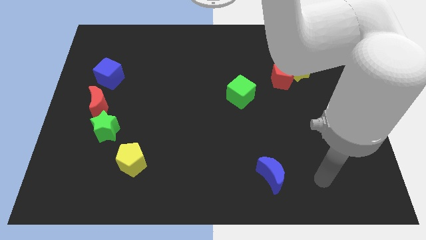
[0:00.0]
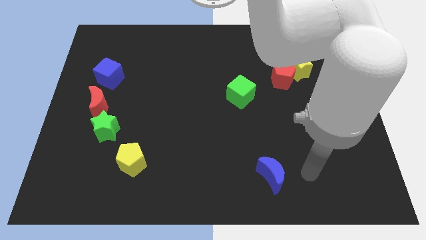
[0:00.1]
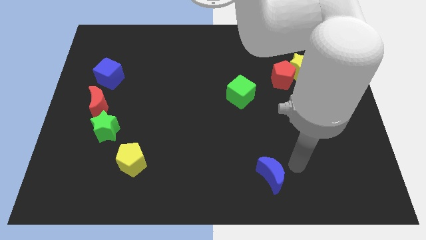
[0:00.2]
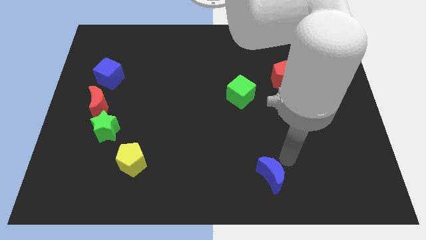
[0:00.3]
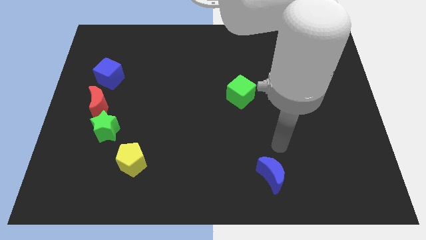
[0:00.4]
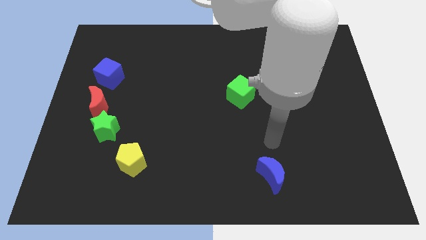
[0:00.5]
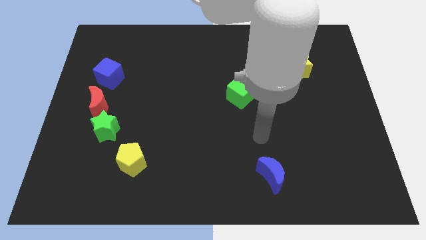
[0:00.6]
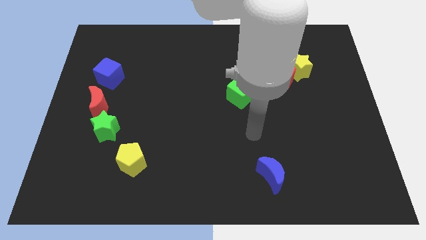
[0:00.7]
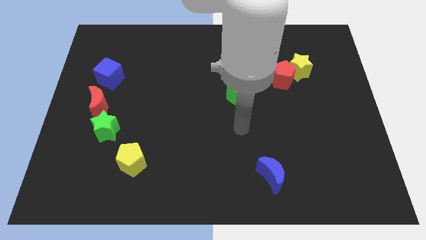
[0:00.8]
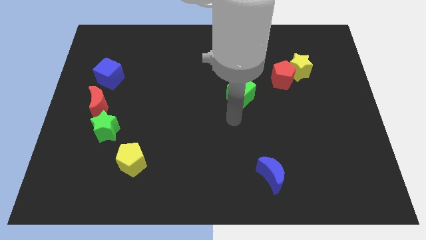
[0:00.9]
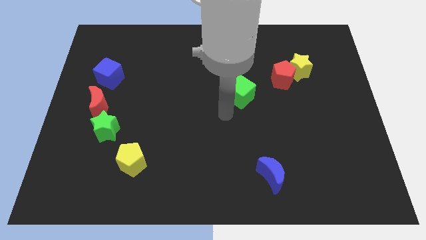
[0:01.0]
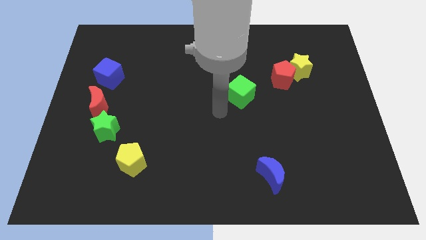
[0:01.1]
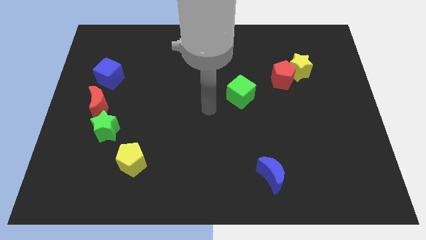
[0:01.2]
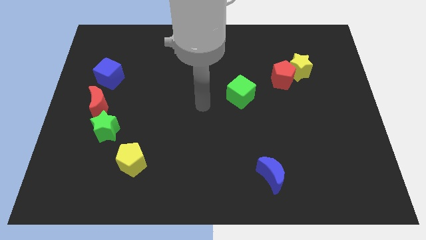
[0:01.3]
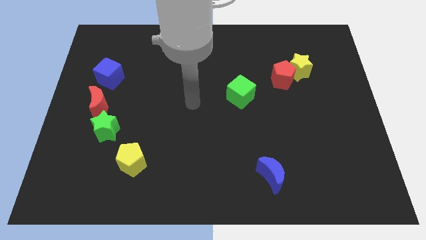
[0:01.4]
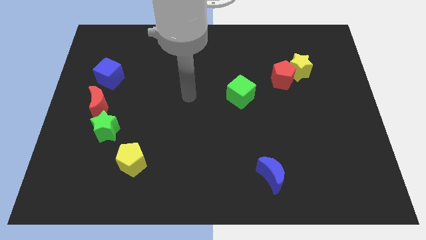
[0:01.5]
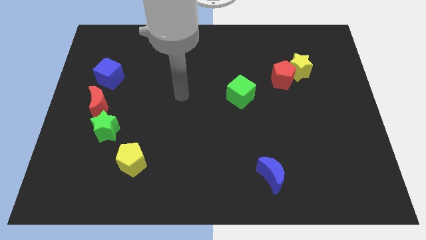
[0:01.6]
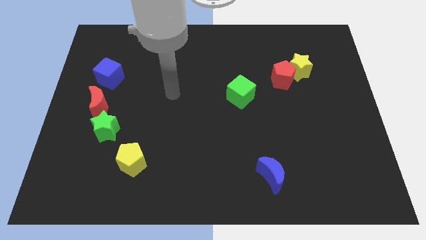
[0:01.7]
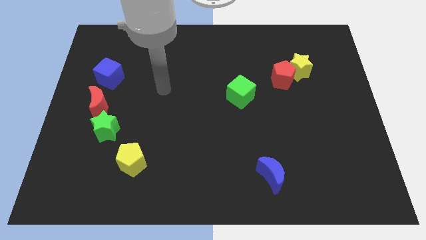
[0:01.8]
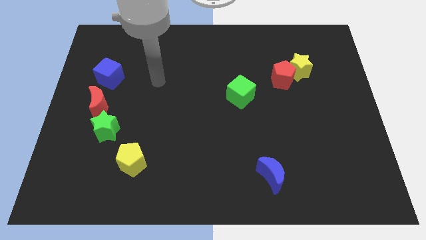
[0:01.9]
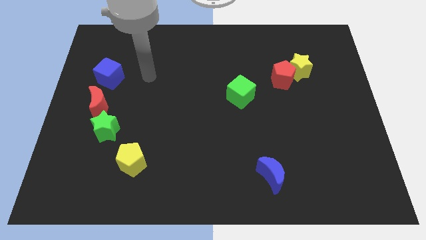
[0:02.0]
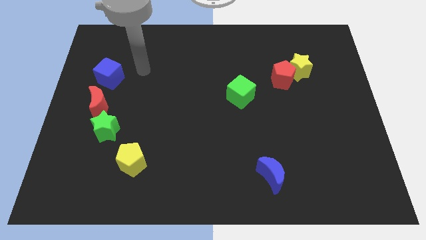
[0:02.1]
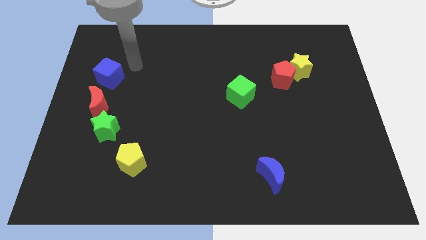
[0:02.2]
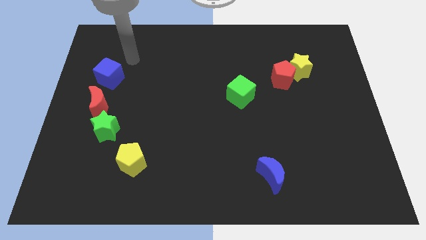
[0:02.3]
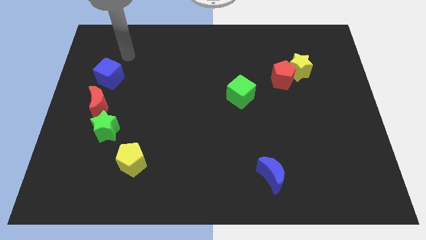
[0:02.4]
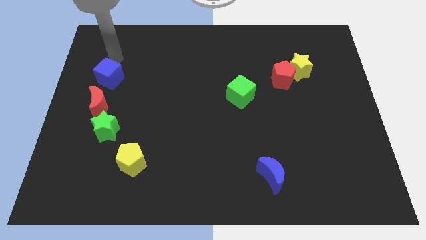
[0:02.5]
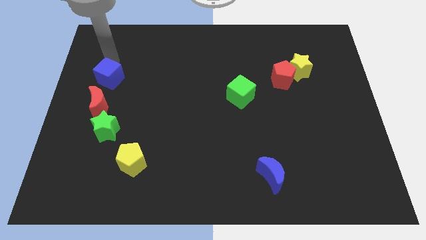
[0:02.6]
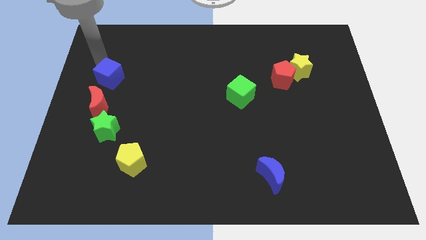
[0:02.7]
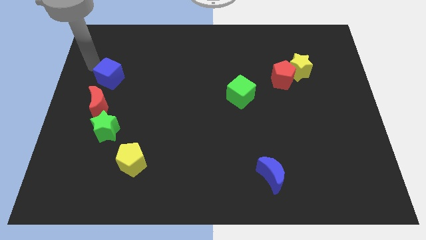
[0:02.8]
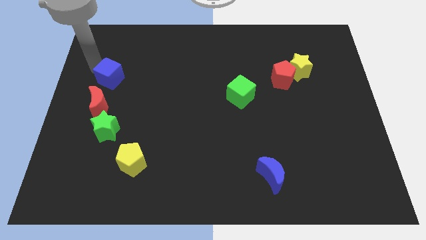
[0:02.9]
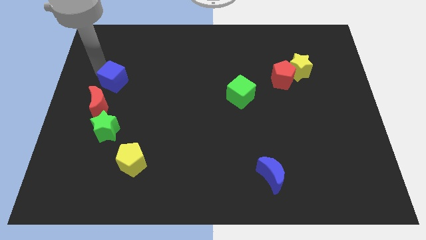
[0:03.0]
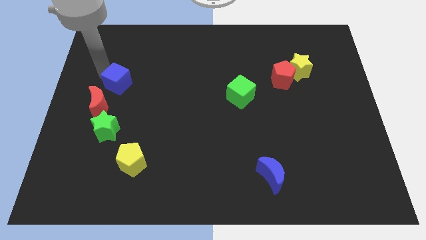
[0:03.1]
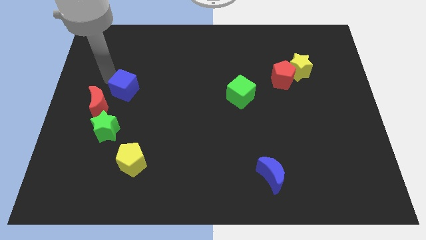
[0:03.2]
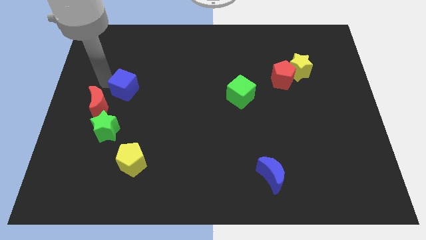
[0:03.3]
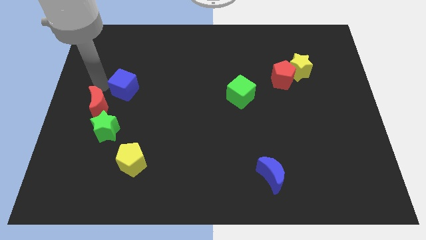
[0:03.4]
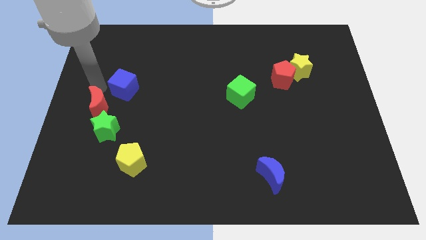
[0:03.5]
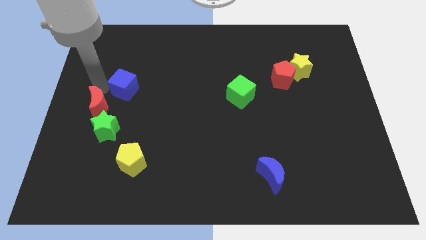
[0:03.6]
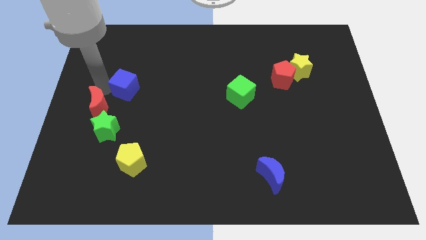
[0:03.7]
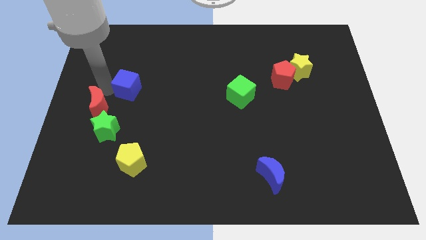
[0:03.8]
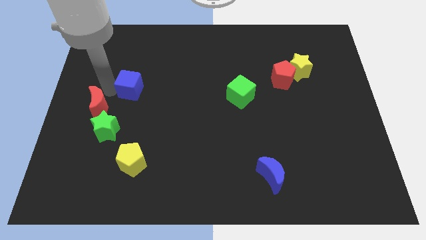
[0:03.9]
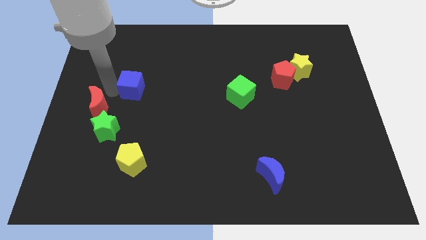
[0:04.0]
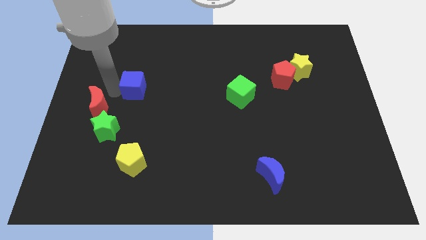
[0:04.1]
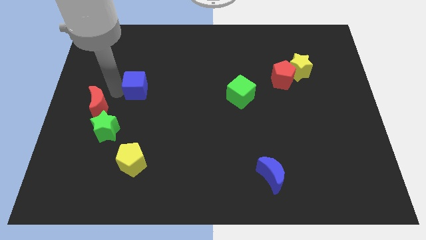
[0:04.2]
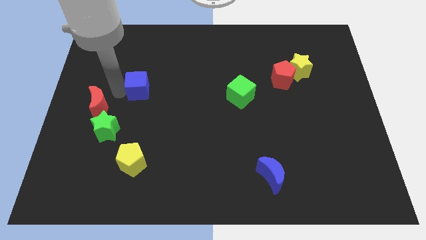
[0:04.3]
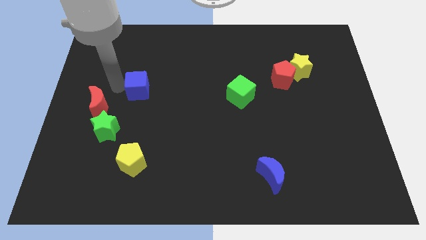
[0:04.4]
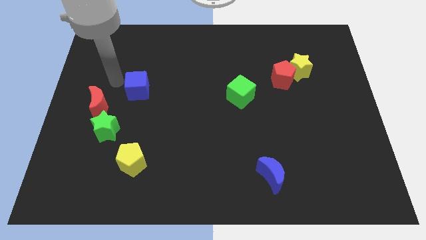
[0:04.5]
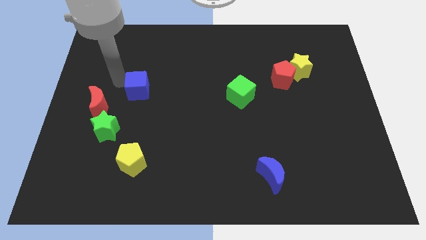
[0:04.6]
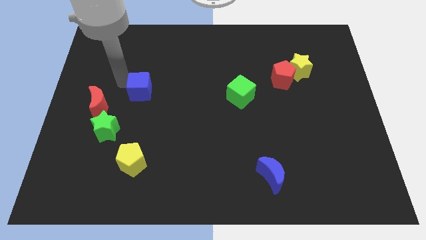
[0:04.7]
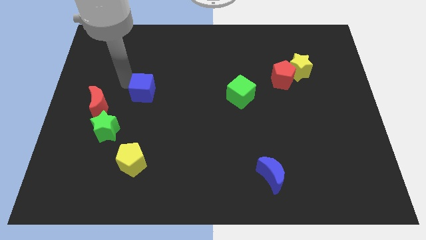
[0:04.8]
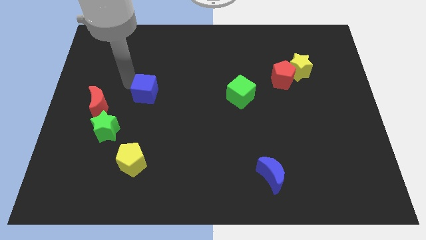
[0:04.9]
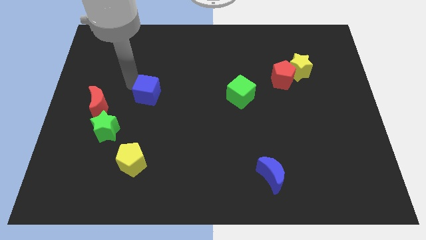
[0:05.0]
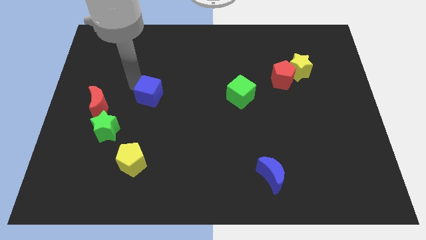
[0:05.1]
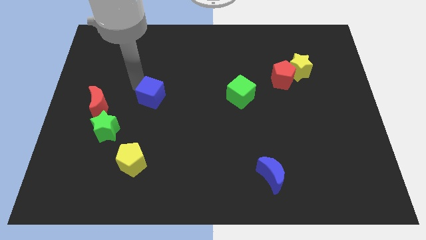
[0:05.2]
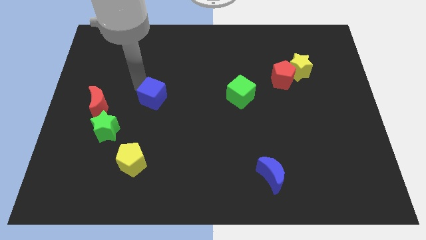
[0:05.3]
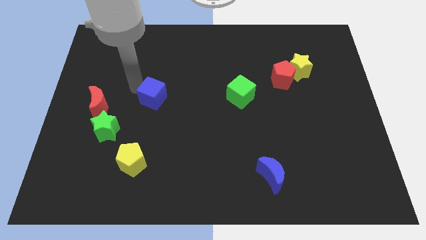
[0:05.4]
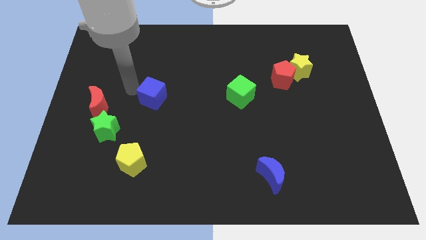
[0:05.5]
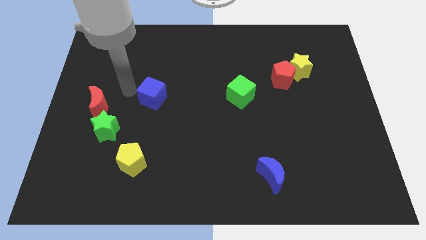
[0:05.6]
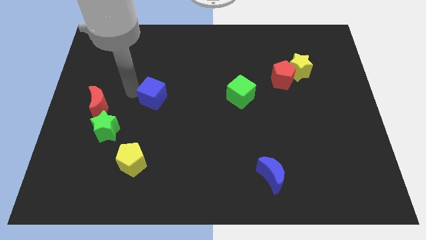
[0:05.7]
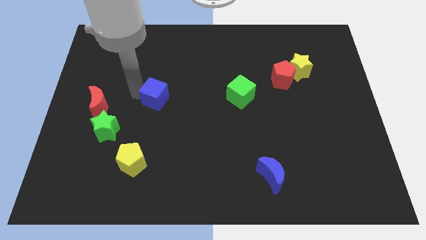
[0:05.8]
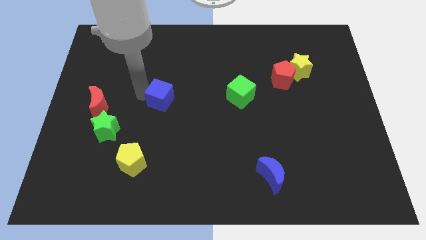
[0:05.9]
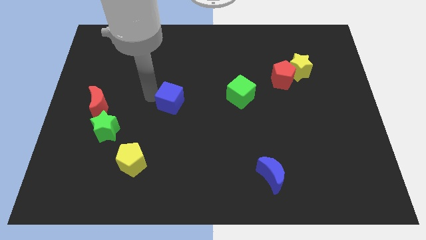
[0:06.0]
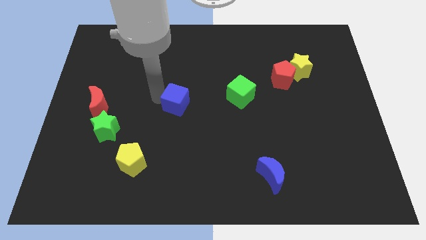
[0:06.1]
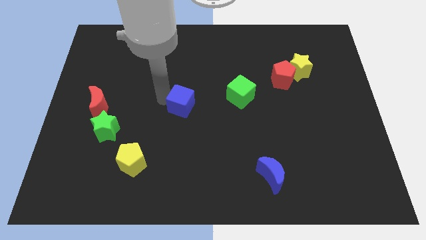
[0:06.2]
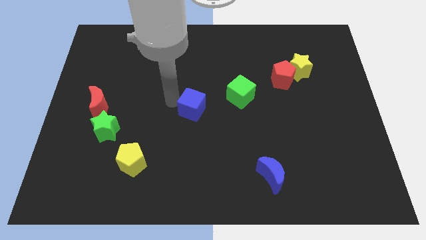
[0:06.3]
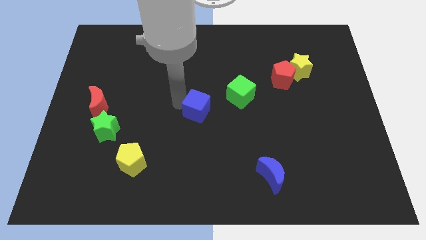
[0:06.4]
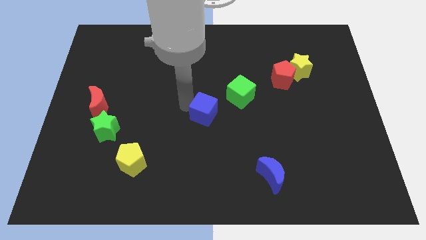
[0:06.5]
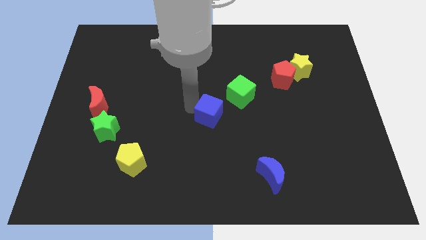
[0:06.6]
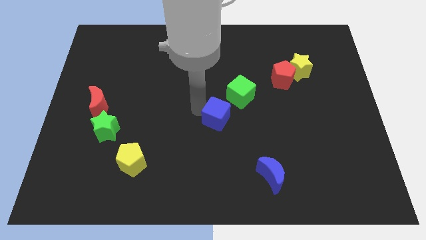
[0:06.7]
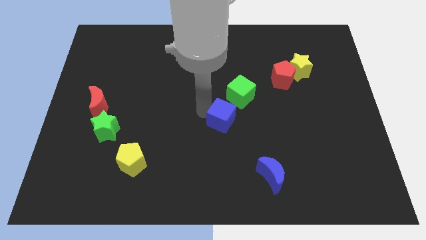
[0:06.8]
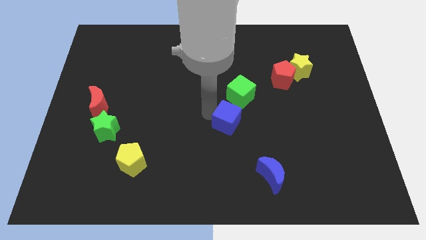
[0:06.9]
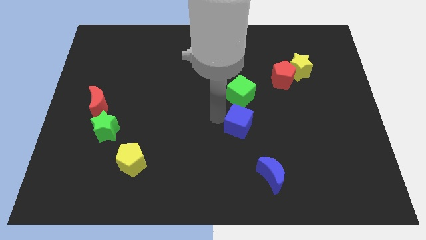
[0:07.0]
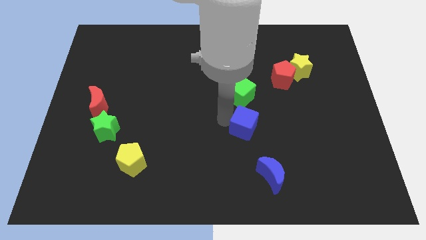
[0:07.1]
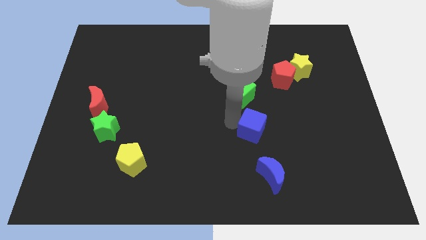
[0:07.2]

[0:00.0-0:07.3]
push the blue cube to the top side of the blue moon
